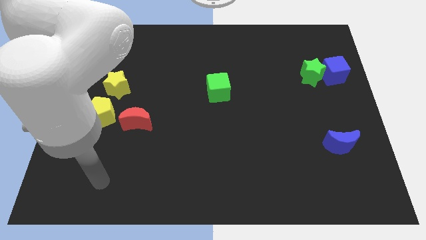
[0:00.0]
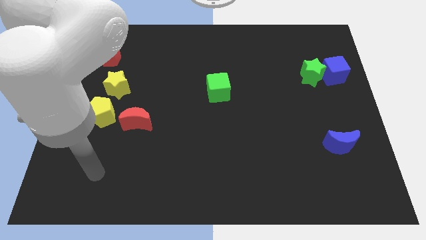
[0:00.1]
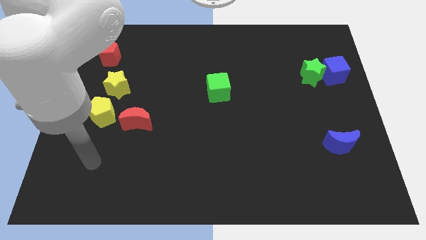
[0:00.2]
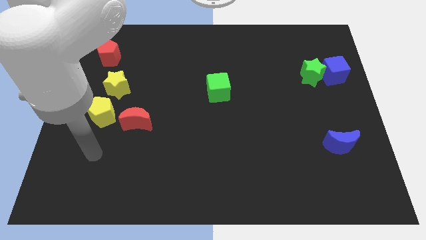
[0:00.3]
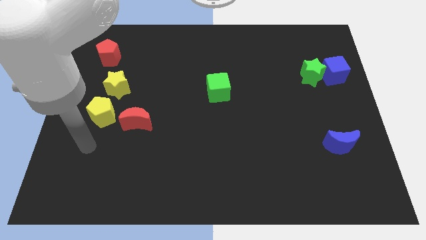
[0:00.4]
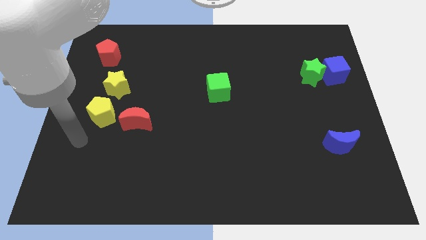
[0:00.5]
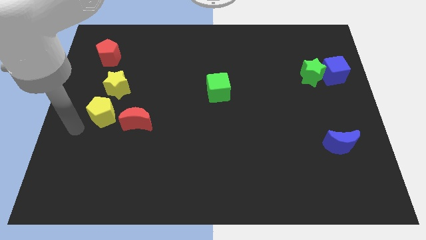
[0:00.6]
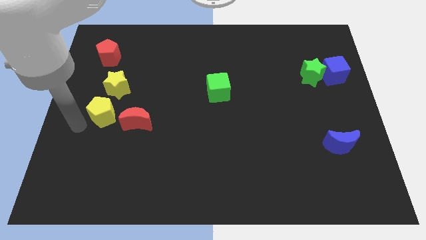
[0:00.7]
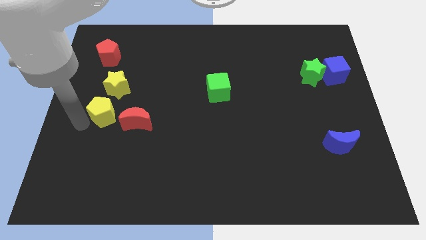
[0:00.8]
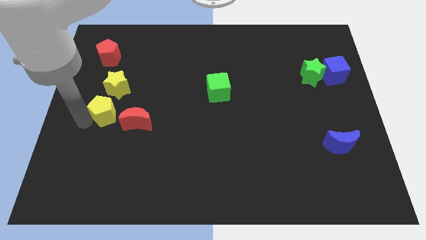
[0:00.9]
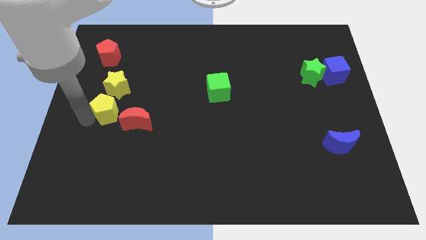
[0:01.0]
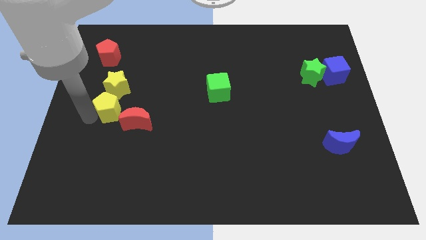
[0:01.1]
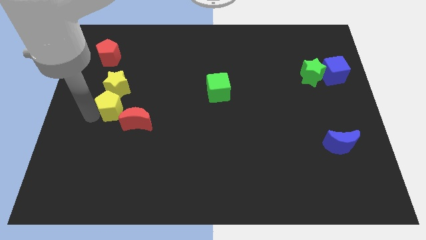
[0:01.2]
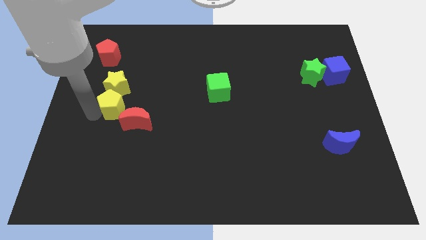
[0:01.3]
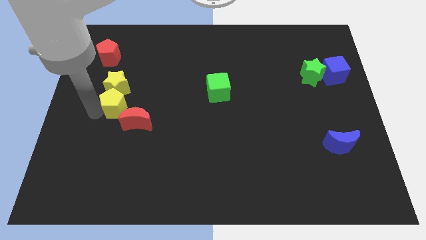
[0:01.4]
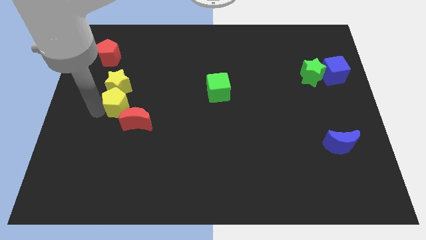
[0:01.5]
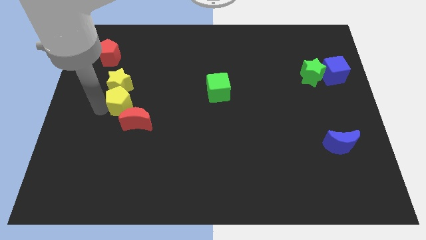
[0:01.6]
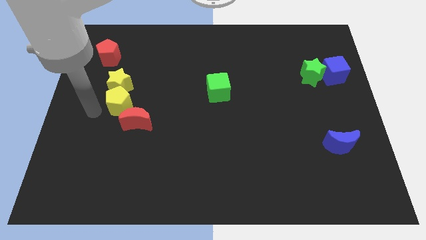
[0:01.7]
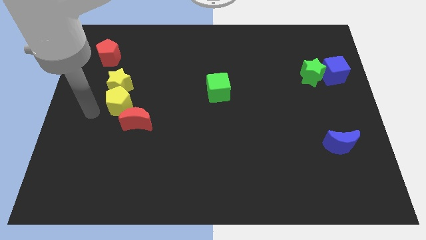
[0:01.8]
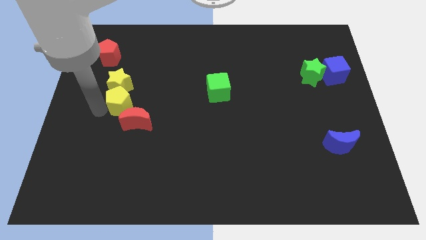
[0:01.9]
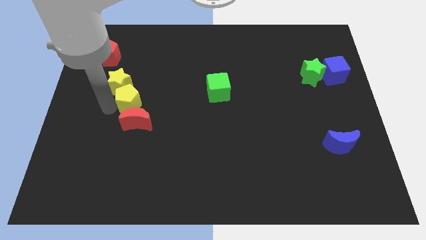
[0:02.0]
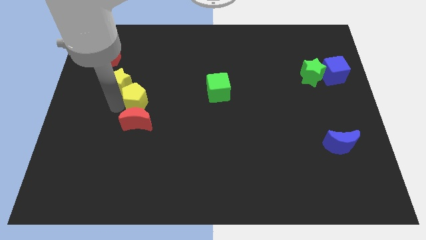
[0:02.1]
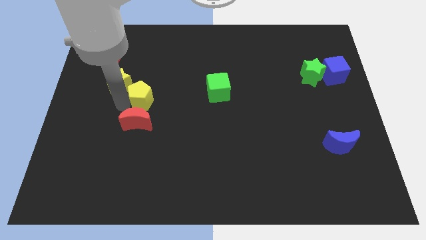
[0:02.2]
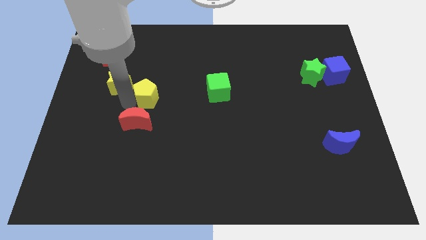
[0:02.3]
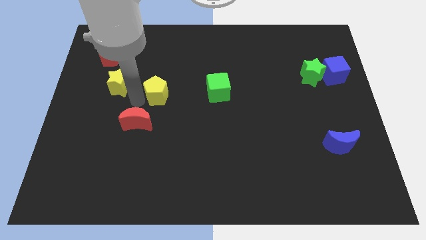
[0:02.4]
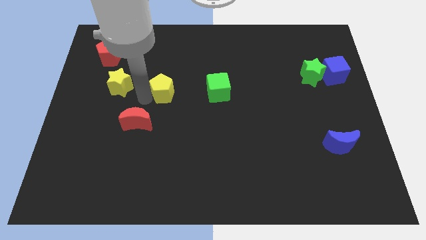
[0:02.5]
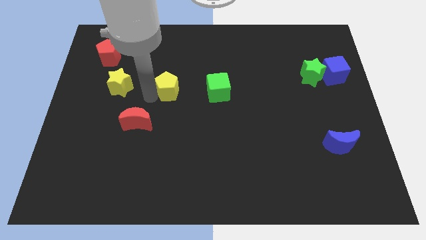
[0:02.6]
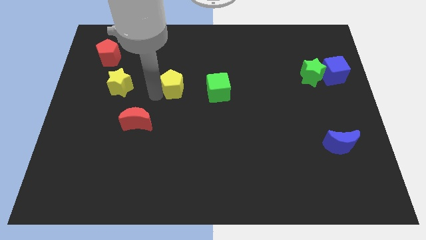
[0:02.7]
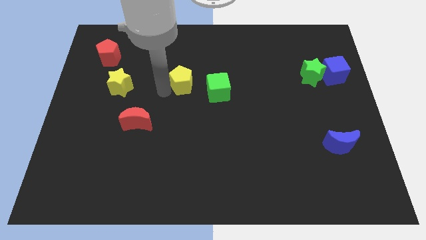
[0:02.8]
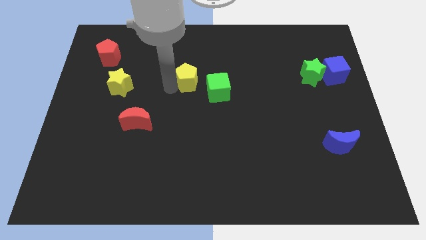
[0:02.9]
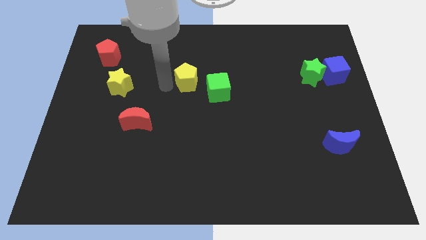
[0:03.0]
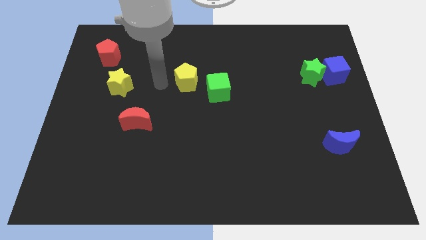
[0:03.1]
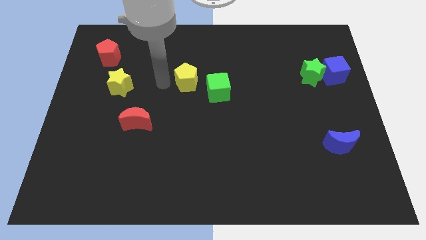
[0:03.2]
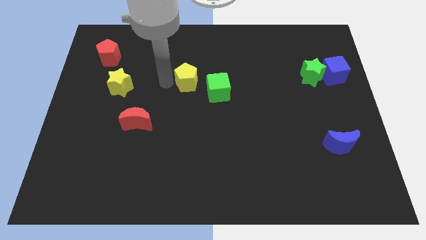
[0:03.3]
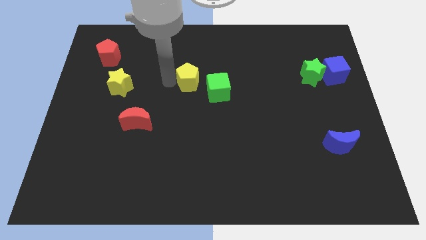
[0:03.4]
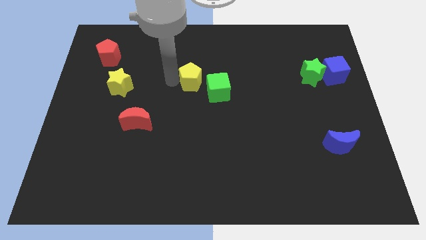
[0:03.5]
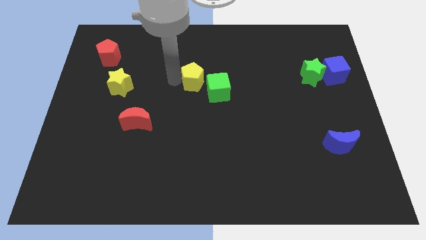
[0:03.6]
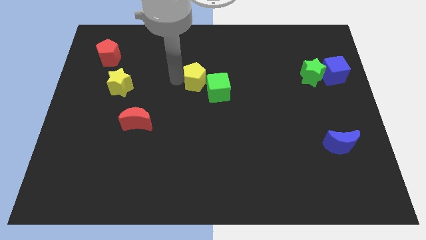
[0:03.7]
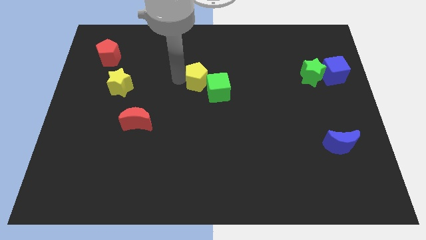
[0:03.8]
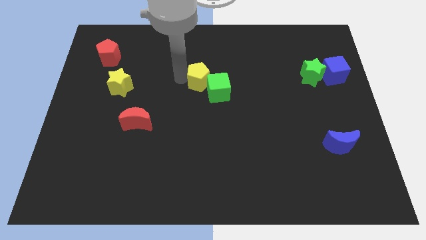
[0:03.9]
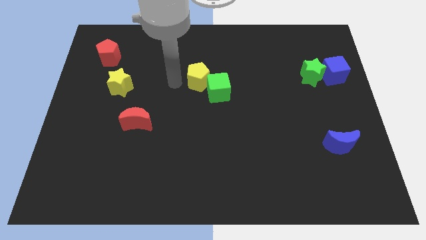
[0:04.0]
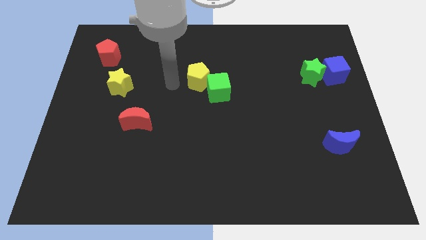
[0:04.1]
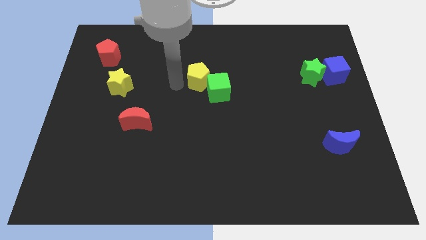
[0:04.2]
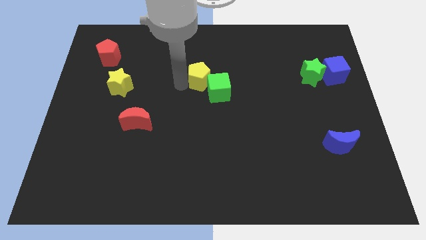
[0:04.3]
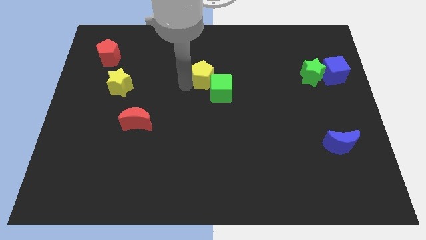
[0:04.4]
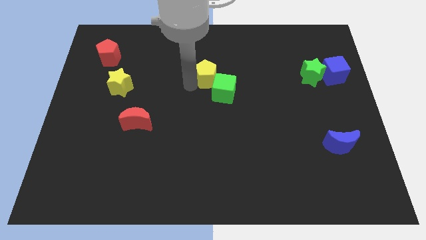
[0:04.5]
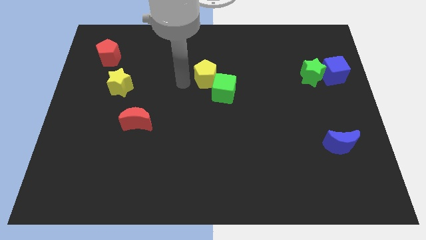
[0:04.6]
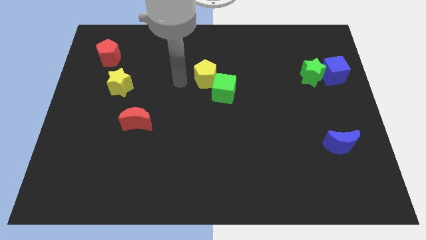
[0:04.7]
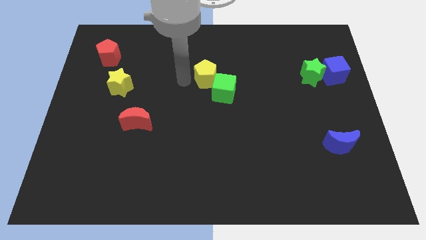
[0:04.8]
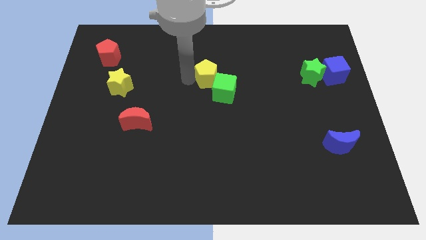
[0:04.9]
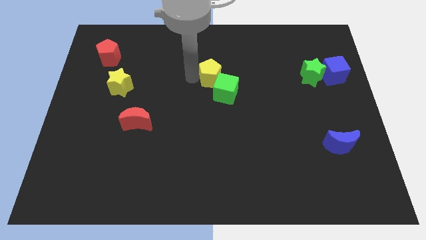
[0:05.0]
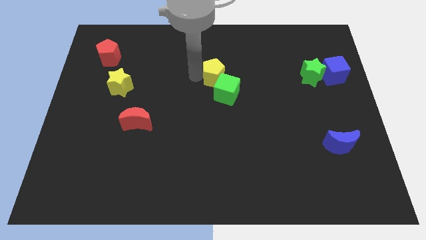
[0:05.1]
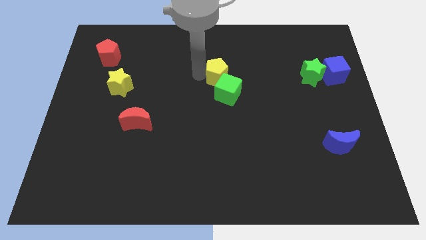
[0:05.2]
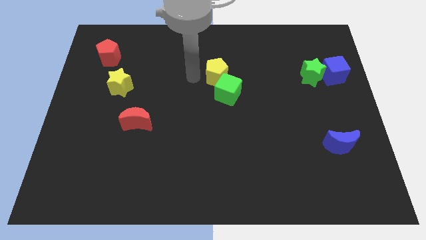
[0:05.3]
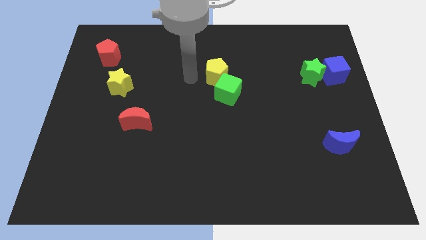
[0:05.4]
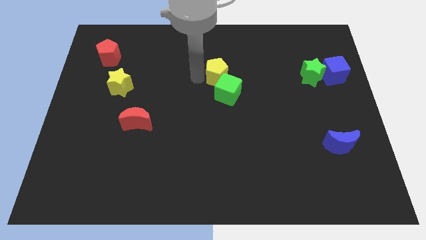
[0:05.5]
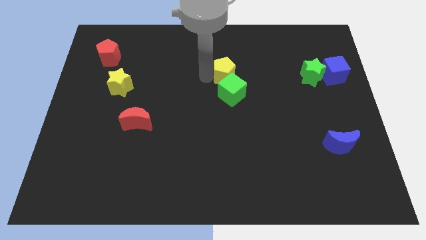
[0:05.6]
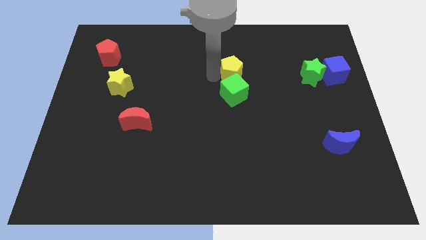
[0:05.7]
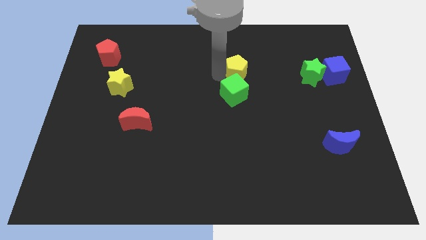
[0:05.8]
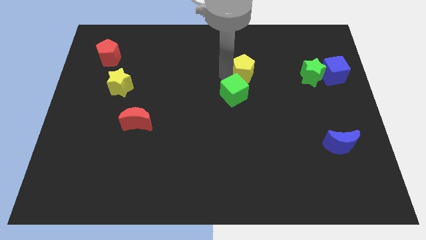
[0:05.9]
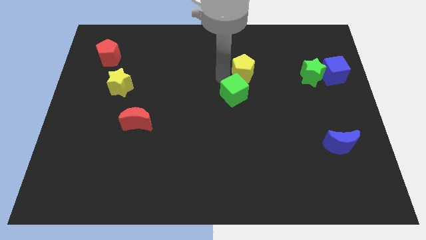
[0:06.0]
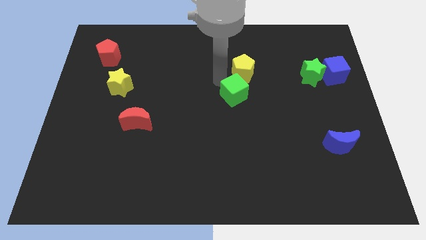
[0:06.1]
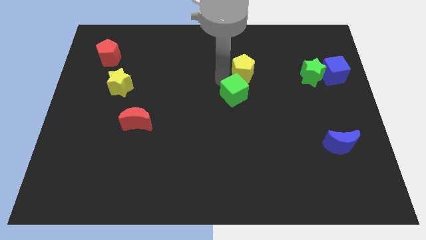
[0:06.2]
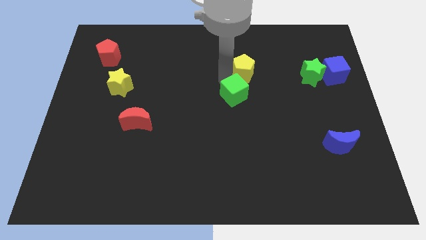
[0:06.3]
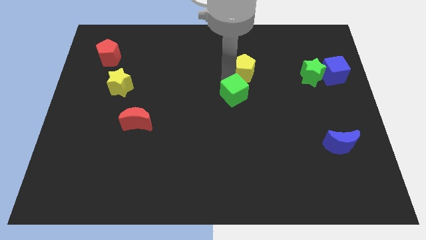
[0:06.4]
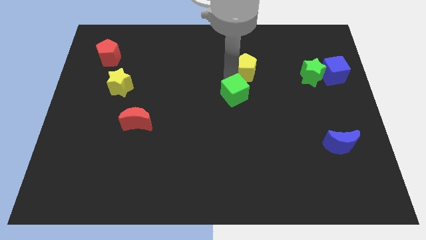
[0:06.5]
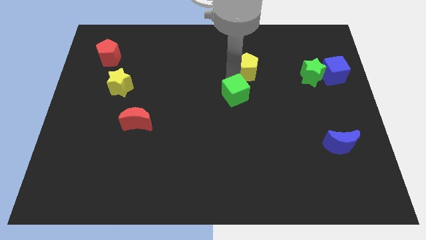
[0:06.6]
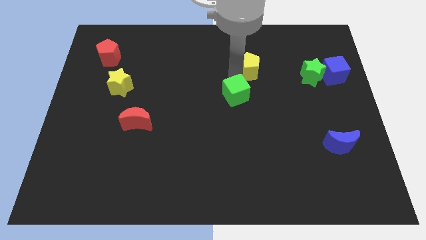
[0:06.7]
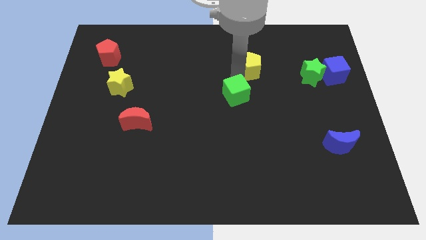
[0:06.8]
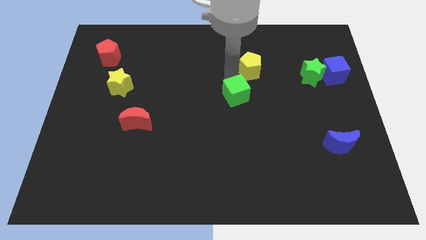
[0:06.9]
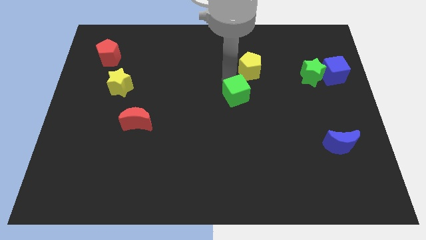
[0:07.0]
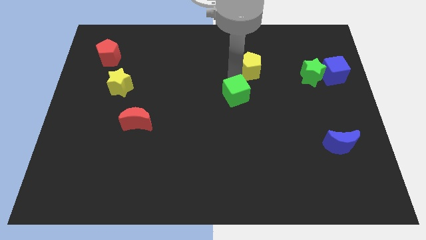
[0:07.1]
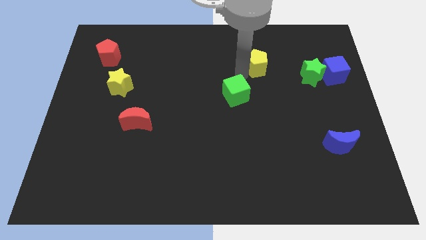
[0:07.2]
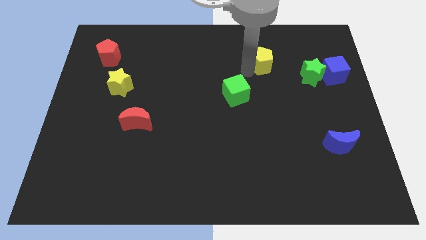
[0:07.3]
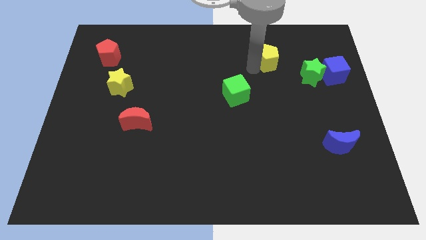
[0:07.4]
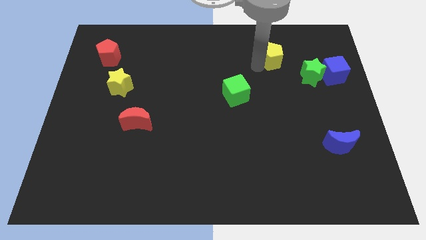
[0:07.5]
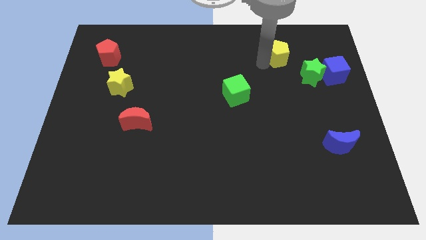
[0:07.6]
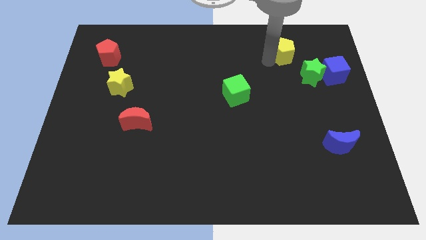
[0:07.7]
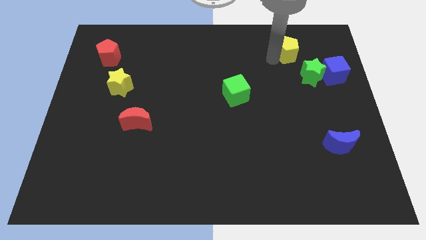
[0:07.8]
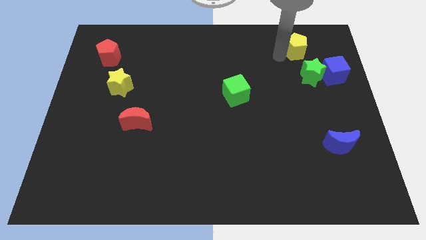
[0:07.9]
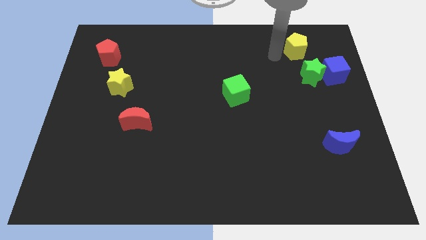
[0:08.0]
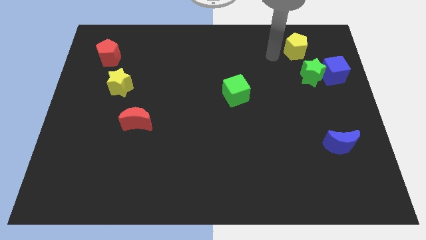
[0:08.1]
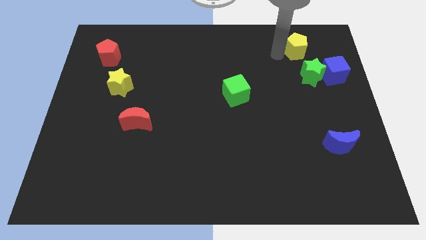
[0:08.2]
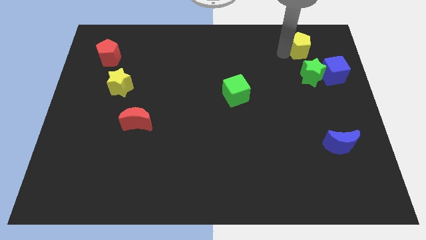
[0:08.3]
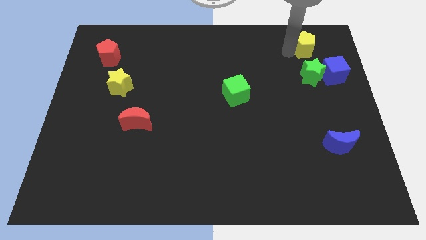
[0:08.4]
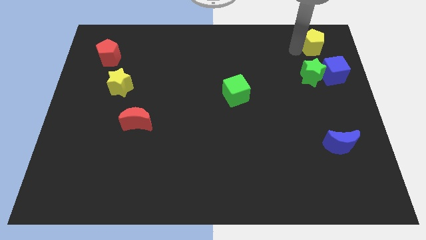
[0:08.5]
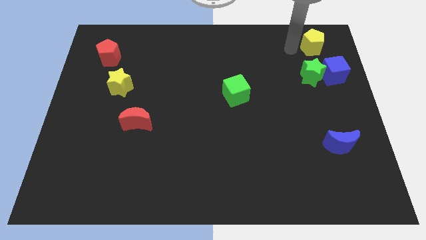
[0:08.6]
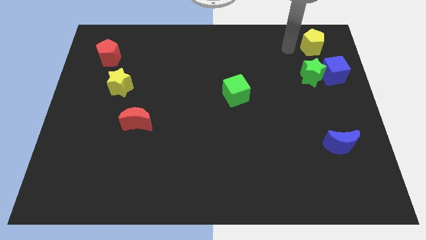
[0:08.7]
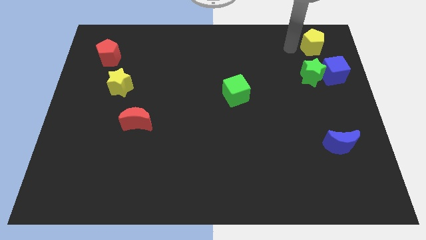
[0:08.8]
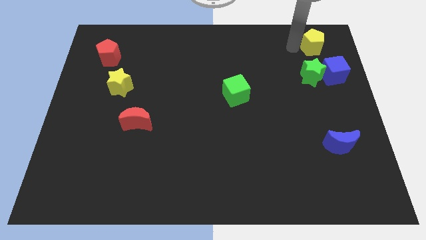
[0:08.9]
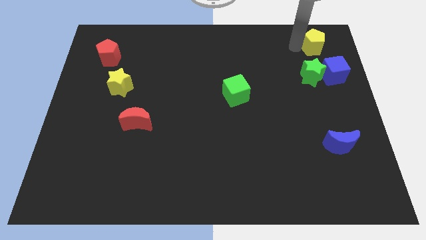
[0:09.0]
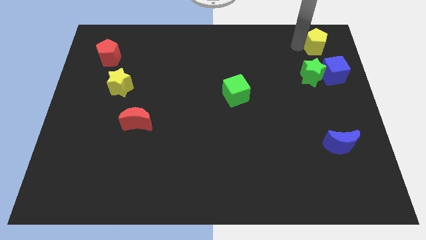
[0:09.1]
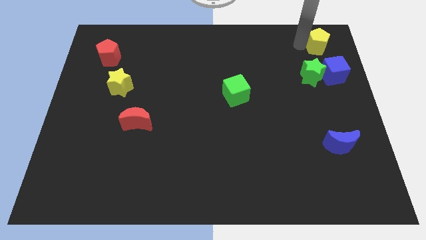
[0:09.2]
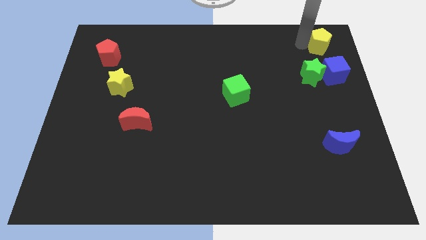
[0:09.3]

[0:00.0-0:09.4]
put the yellow pentagon to the top right
